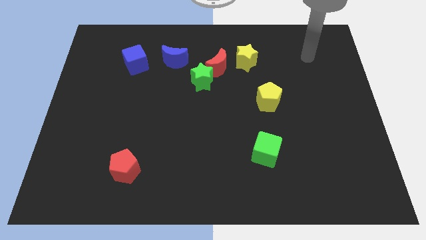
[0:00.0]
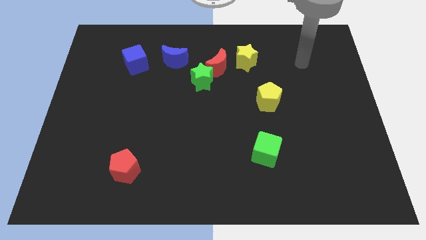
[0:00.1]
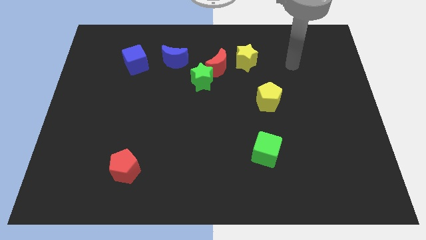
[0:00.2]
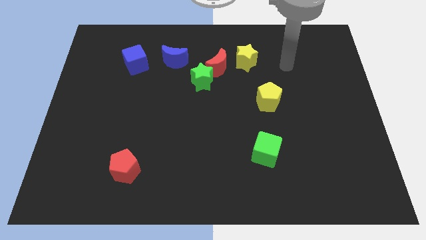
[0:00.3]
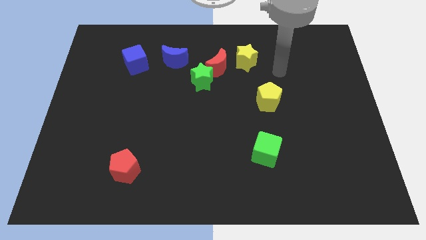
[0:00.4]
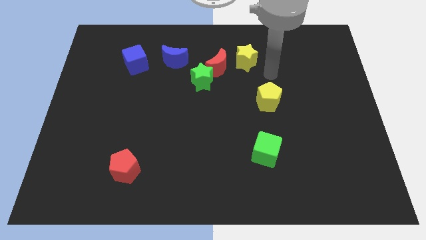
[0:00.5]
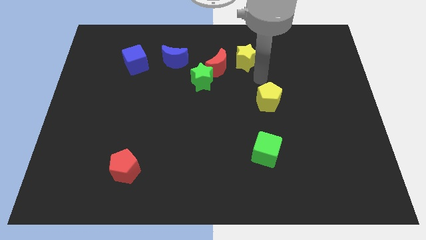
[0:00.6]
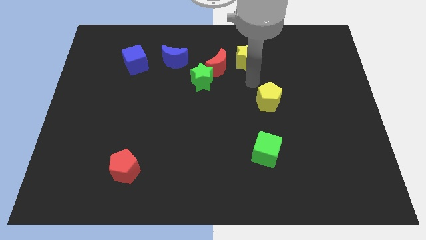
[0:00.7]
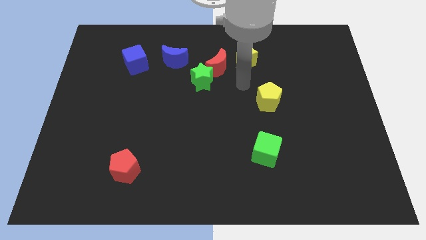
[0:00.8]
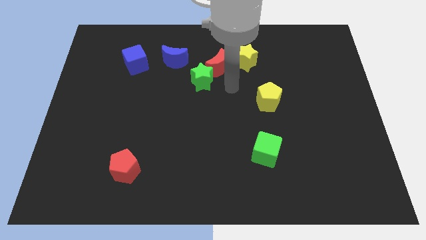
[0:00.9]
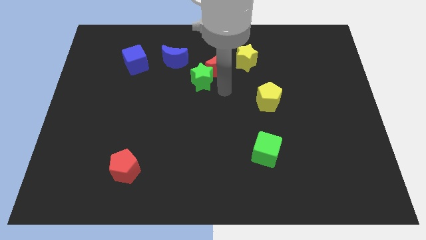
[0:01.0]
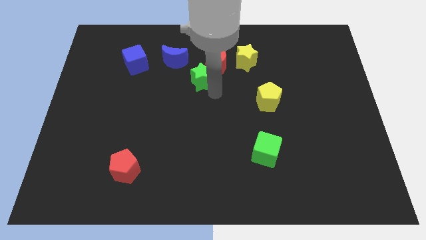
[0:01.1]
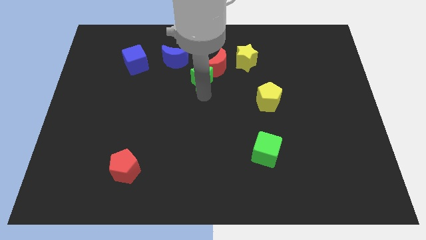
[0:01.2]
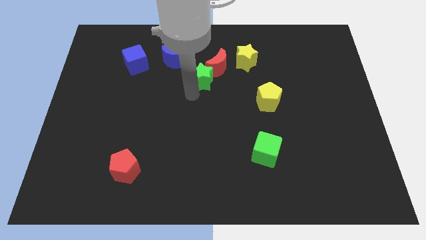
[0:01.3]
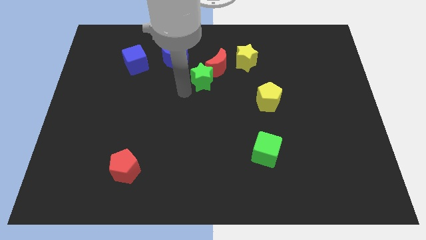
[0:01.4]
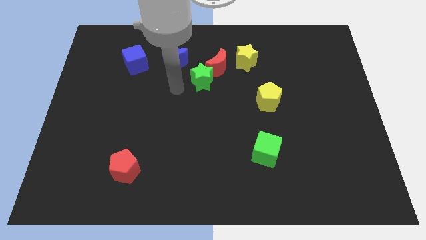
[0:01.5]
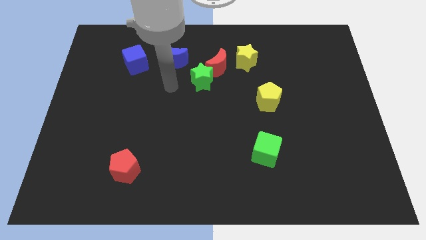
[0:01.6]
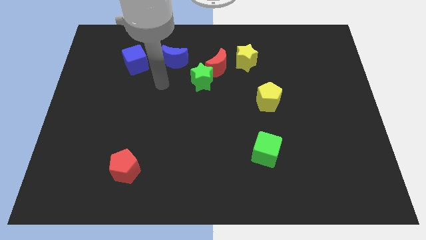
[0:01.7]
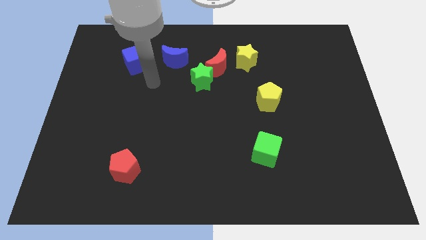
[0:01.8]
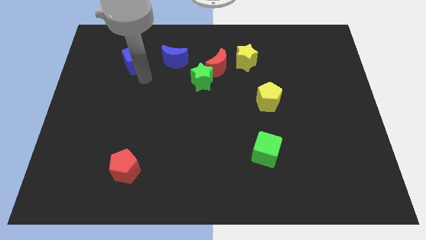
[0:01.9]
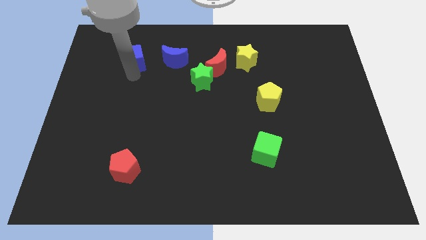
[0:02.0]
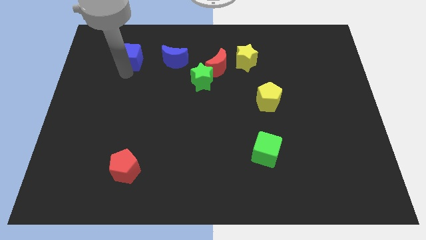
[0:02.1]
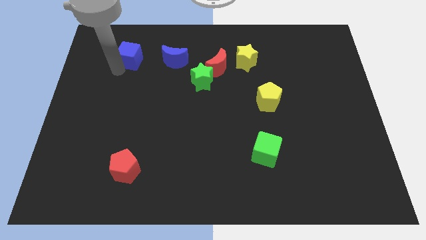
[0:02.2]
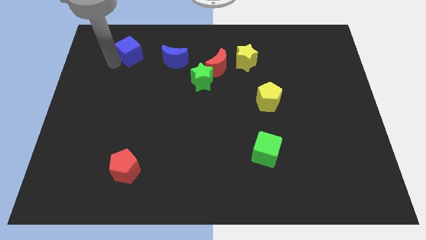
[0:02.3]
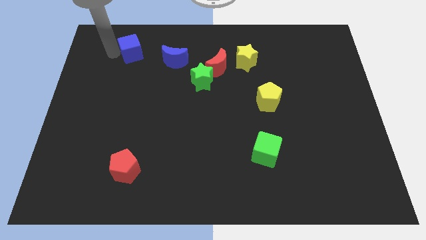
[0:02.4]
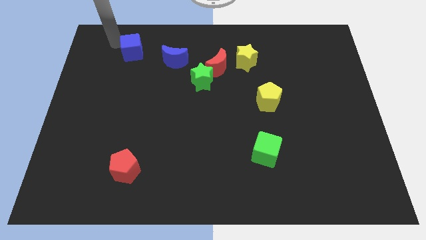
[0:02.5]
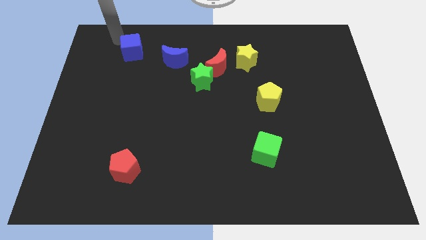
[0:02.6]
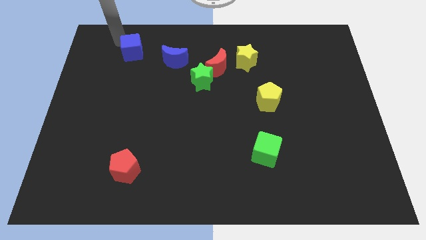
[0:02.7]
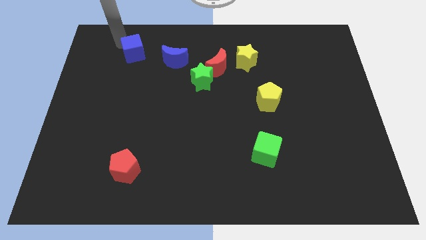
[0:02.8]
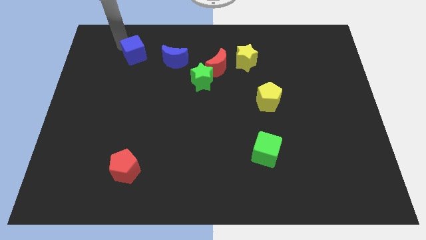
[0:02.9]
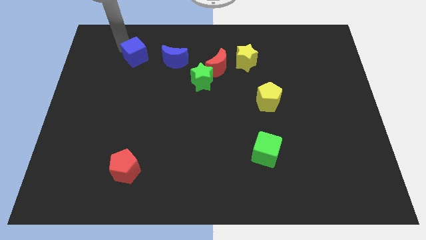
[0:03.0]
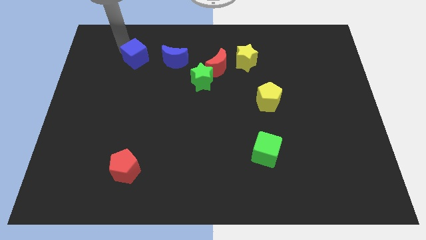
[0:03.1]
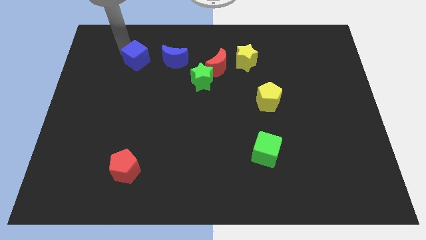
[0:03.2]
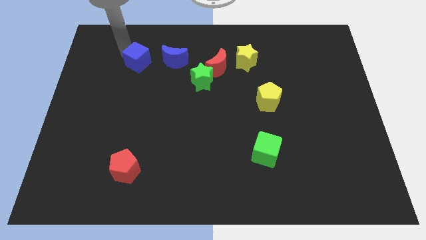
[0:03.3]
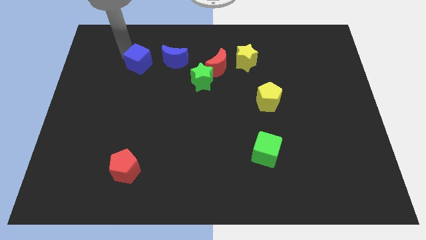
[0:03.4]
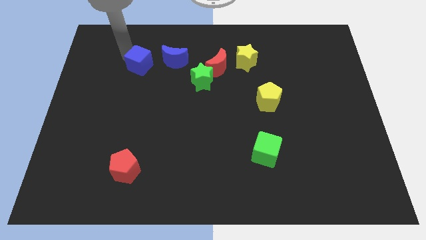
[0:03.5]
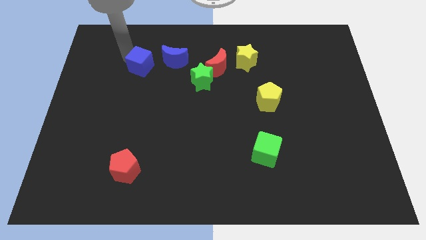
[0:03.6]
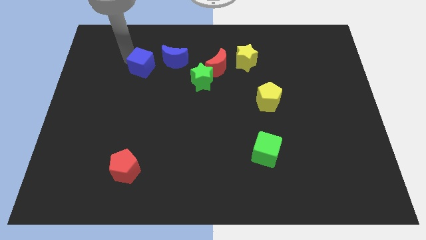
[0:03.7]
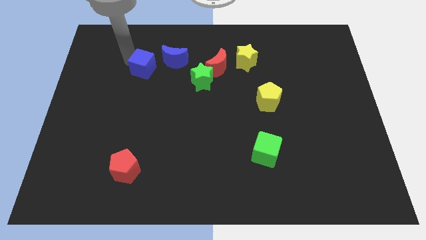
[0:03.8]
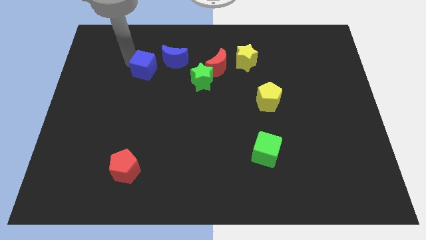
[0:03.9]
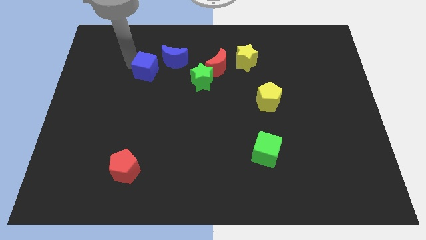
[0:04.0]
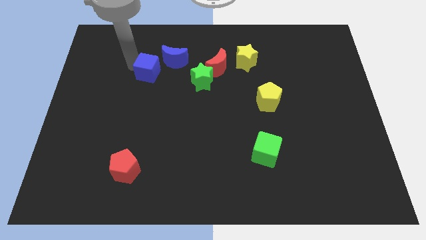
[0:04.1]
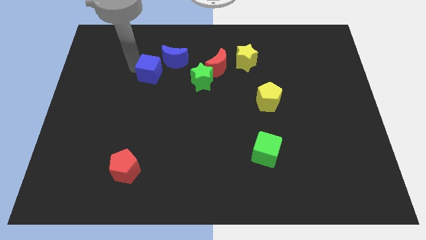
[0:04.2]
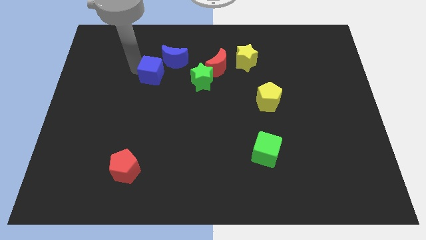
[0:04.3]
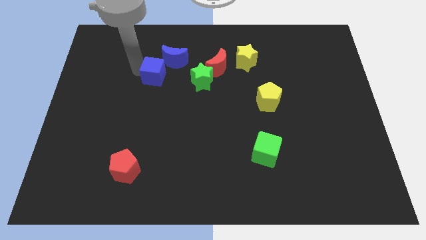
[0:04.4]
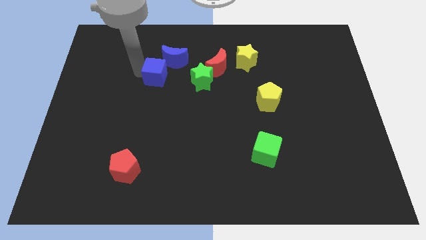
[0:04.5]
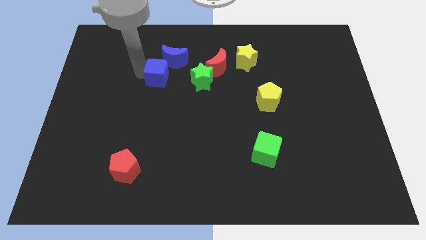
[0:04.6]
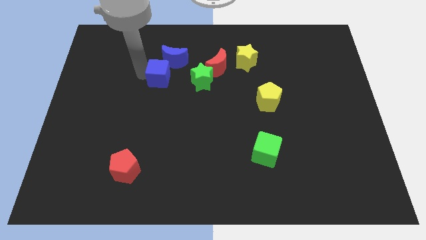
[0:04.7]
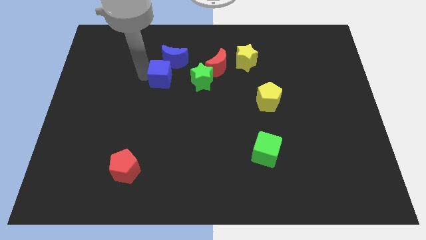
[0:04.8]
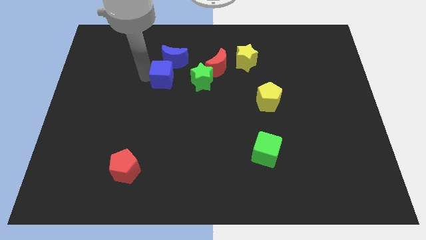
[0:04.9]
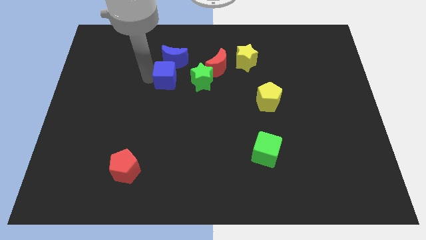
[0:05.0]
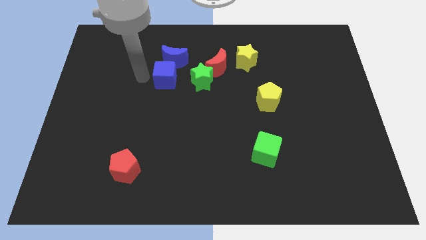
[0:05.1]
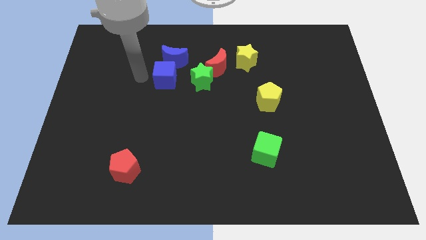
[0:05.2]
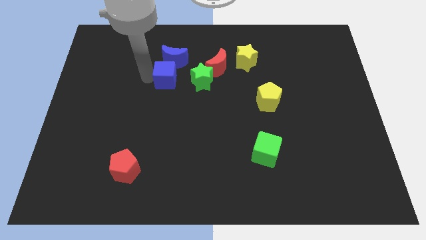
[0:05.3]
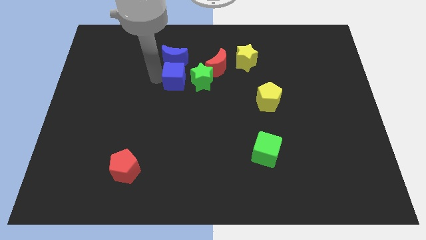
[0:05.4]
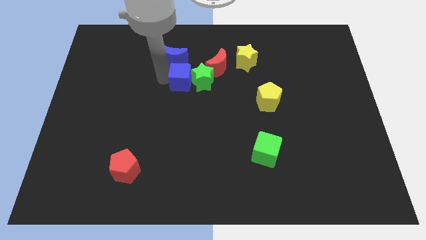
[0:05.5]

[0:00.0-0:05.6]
slide the blue cube close to the green star

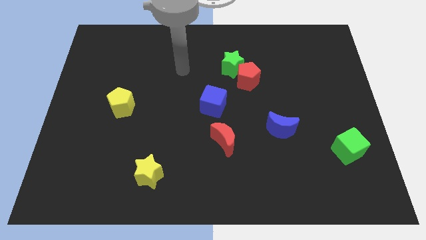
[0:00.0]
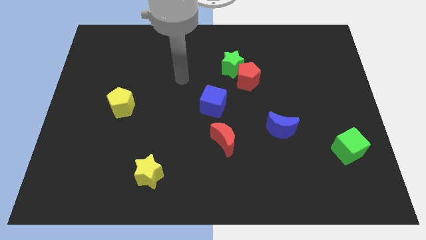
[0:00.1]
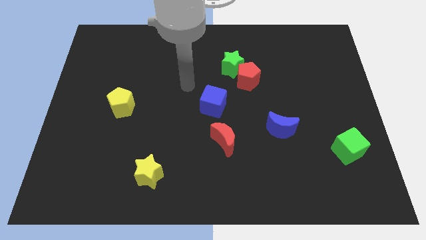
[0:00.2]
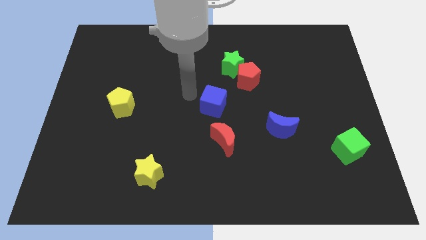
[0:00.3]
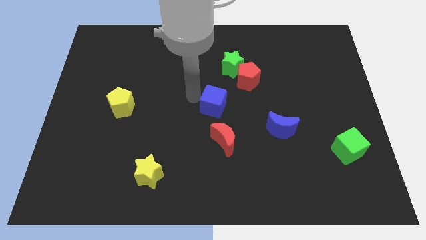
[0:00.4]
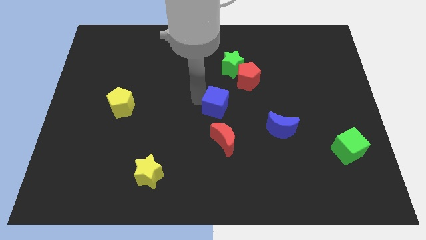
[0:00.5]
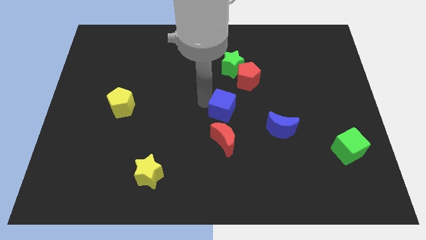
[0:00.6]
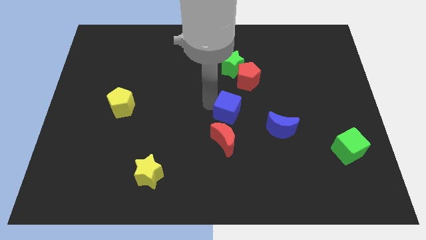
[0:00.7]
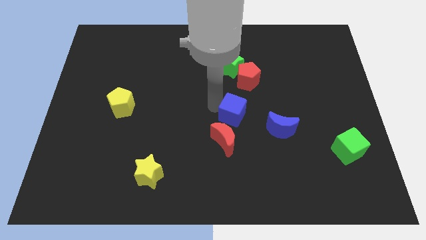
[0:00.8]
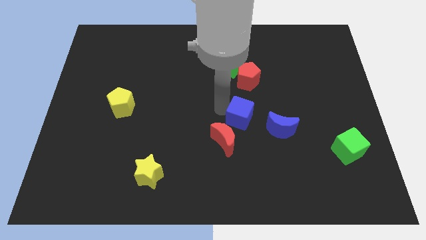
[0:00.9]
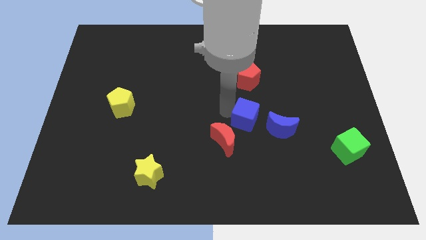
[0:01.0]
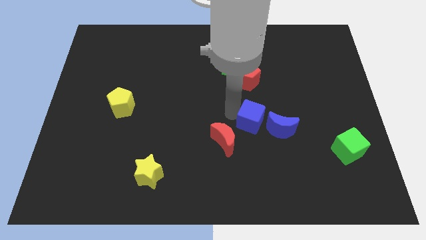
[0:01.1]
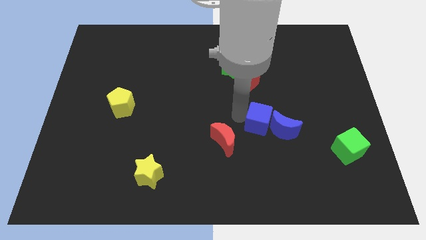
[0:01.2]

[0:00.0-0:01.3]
push the blue cube next to the blue moon
